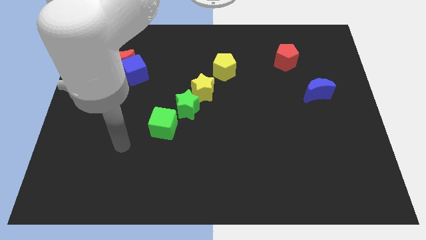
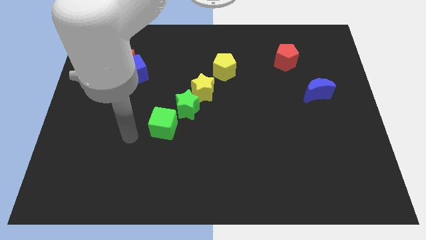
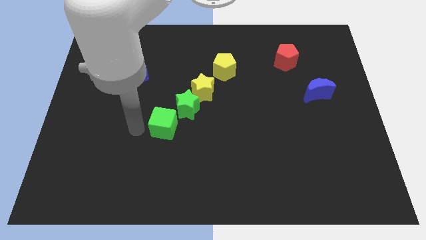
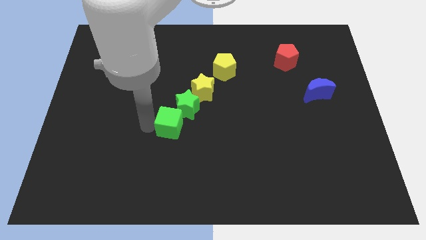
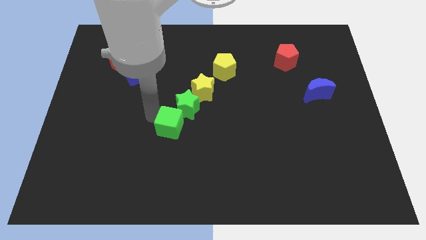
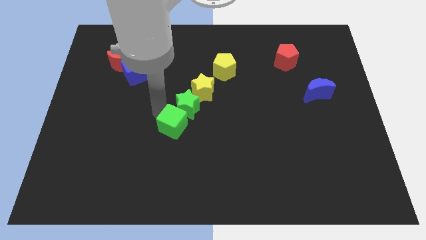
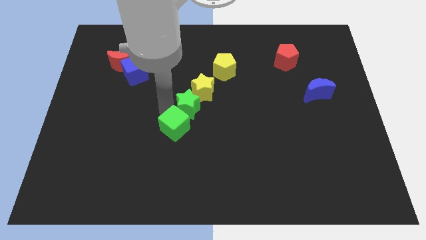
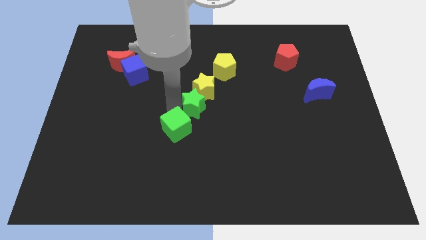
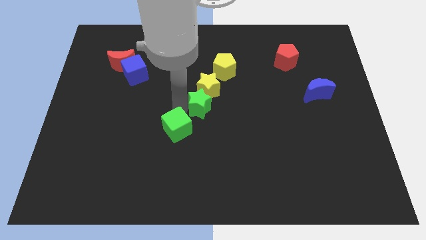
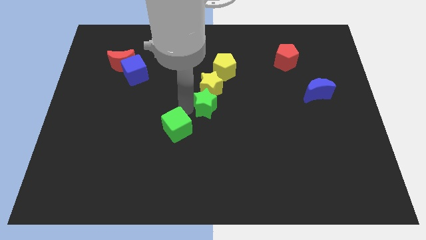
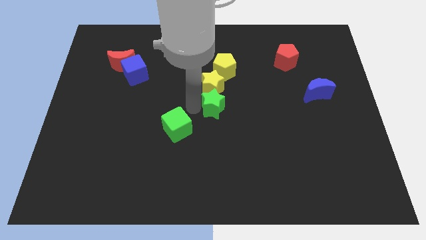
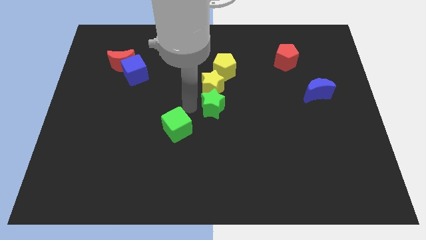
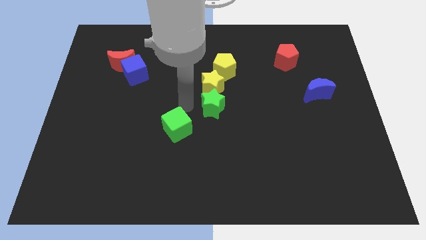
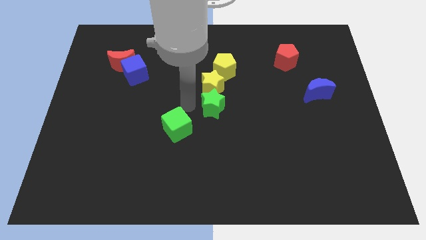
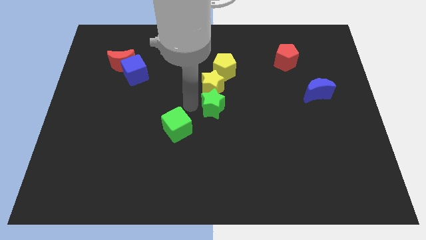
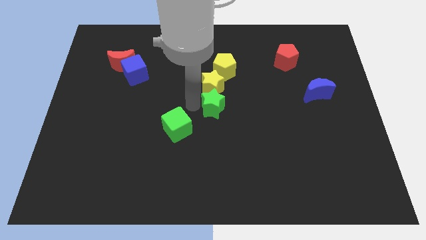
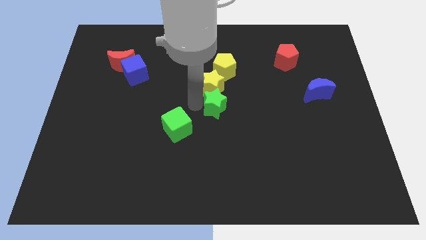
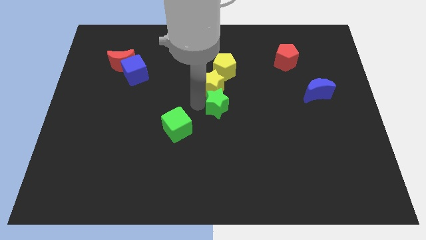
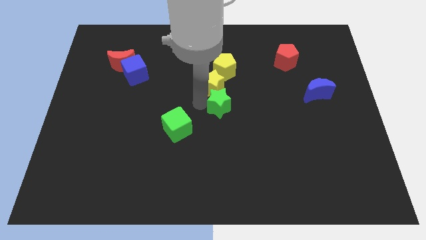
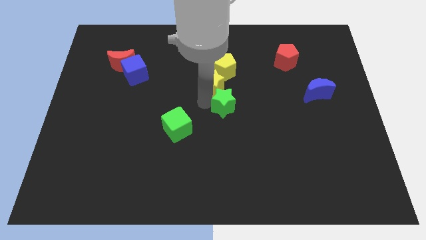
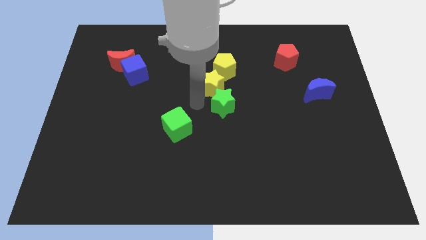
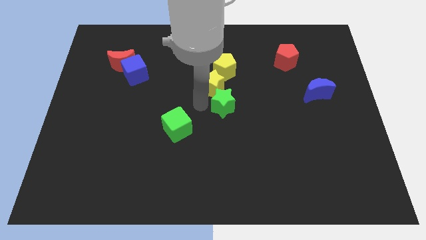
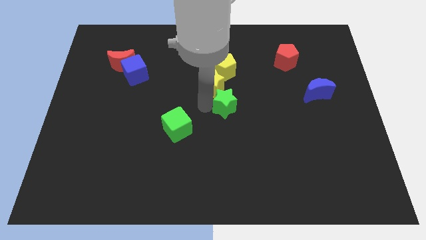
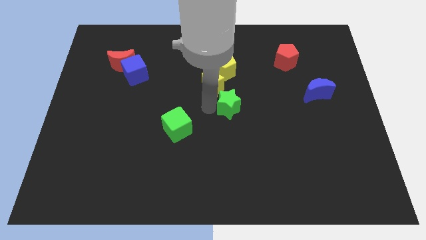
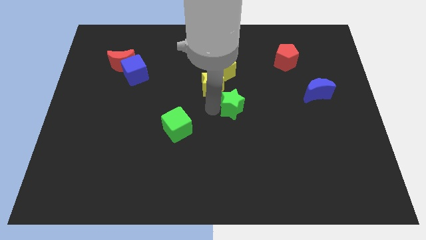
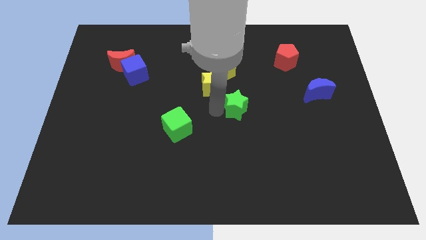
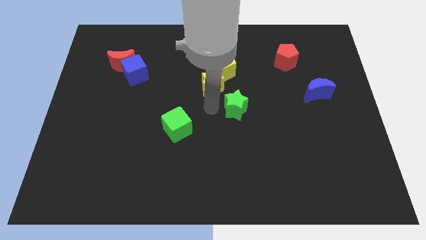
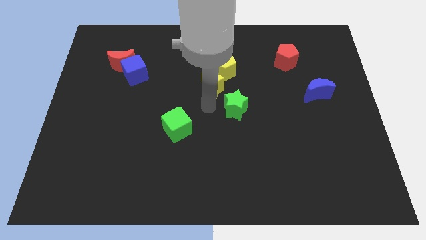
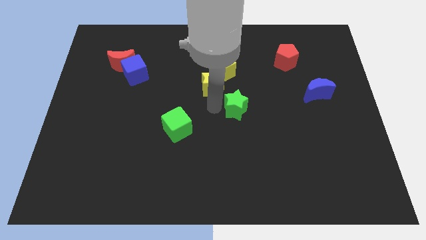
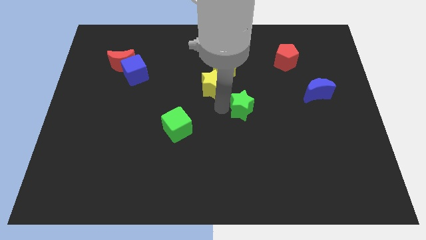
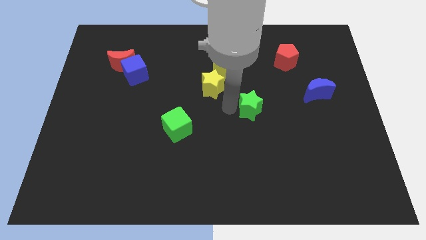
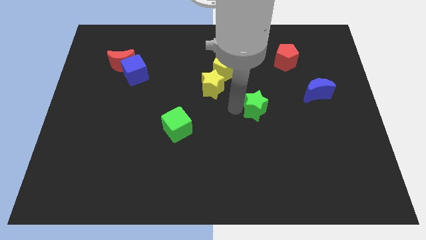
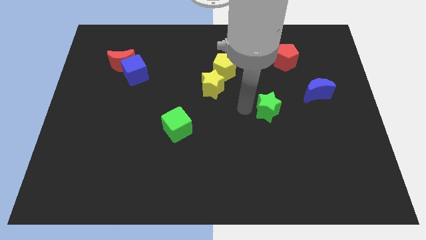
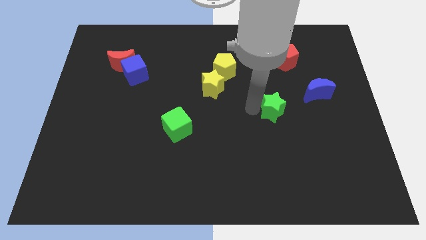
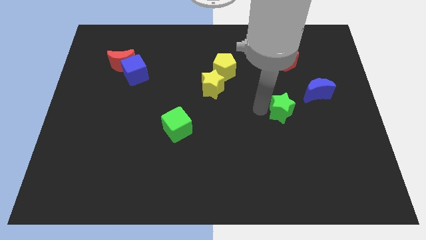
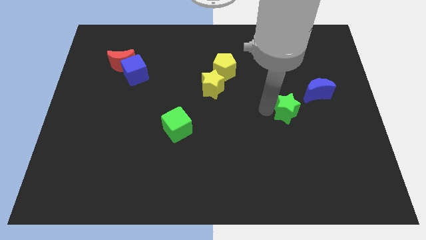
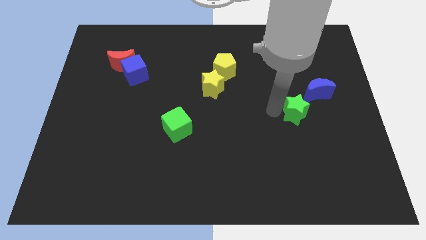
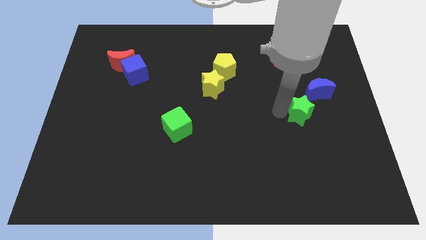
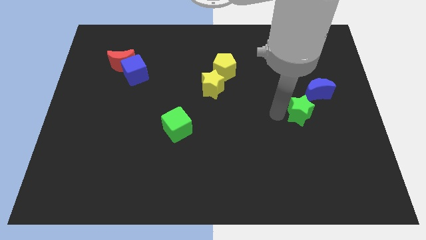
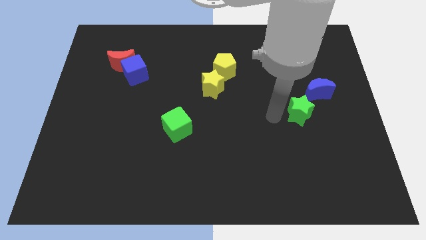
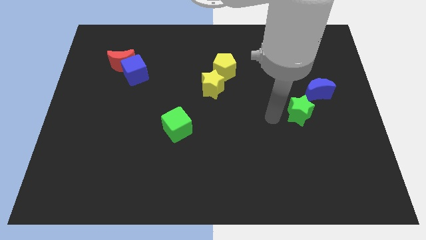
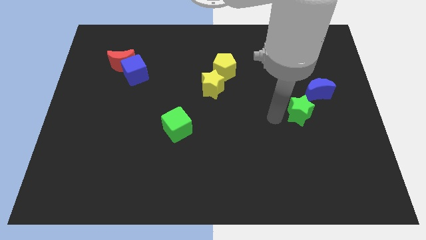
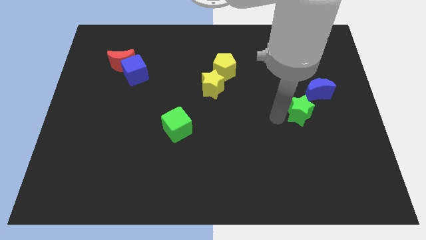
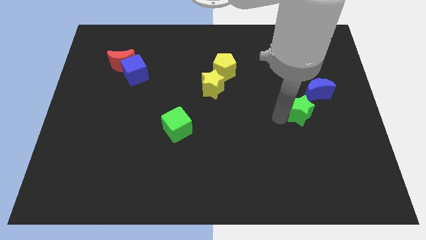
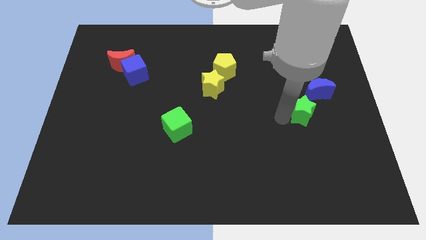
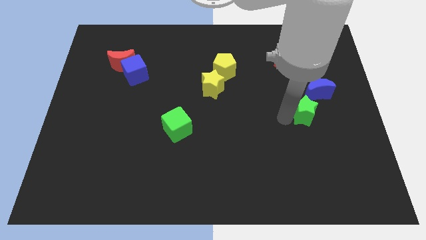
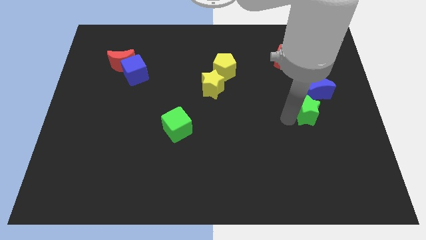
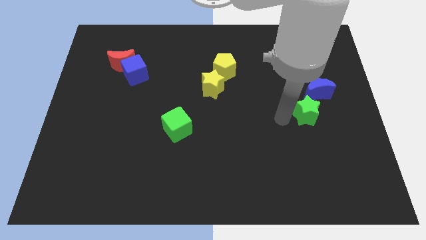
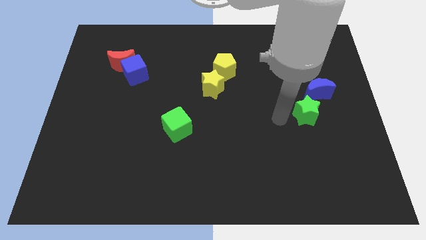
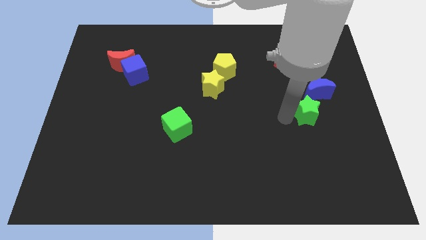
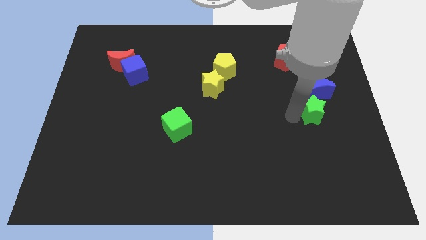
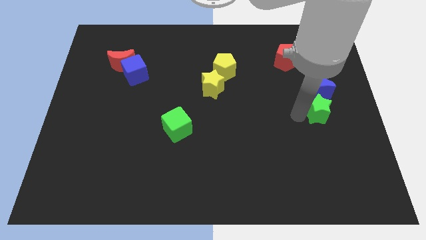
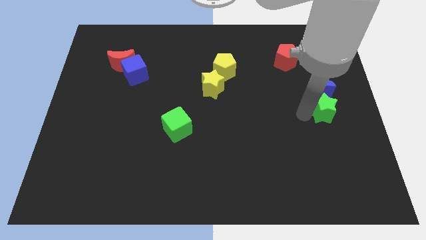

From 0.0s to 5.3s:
move the green star to the center right

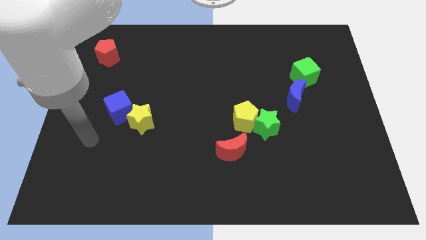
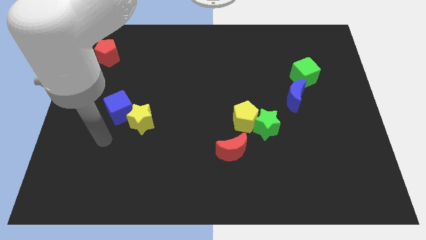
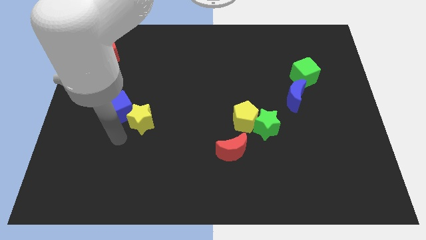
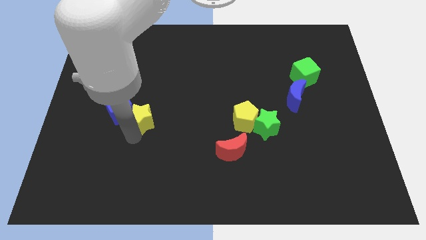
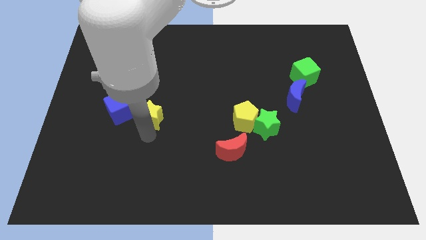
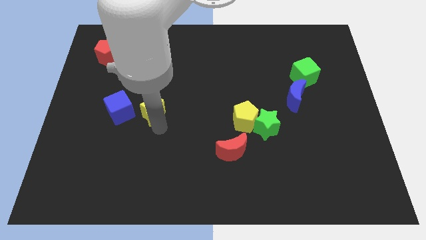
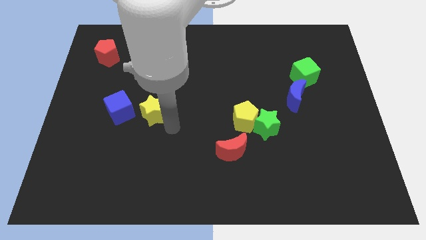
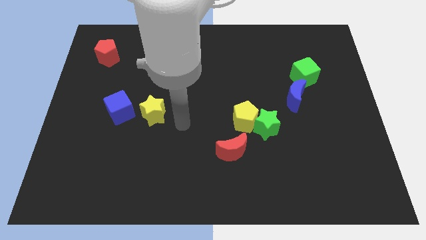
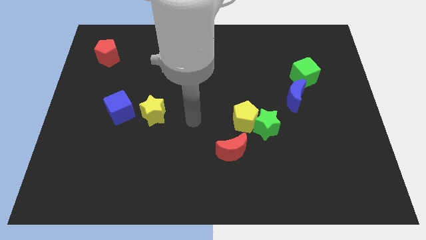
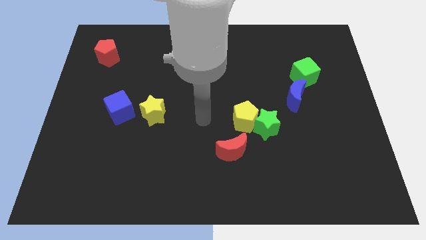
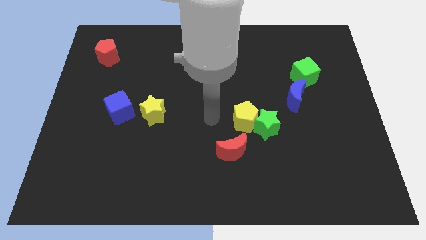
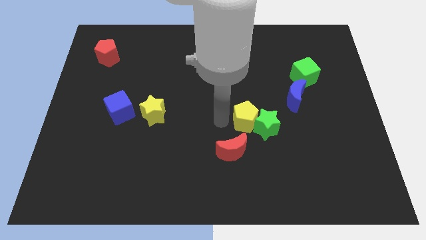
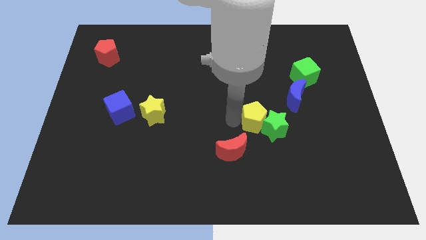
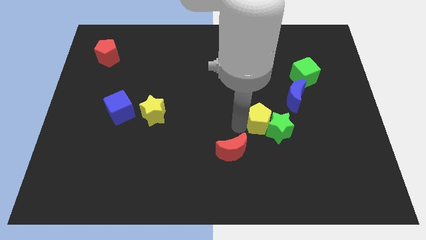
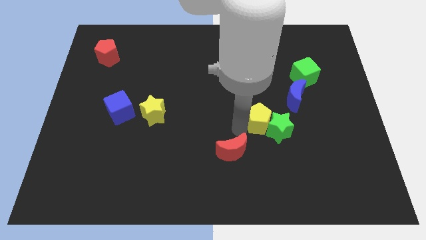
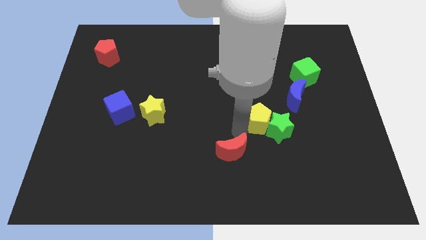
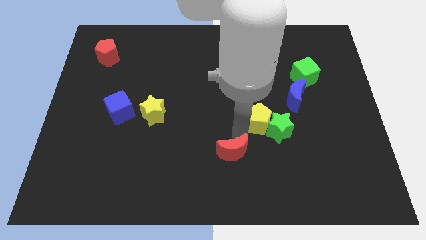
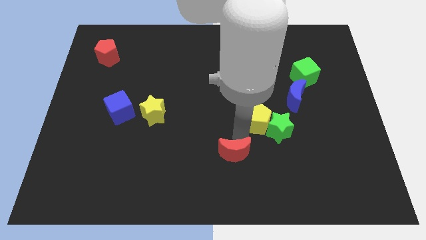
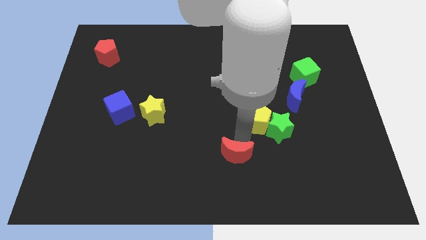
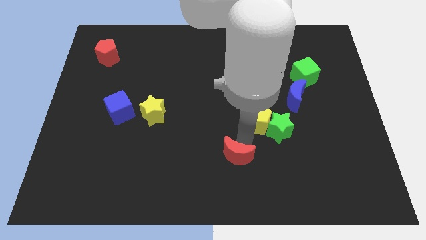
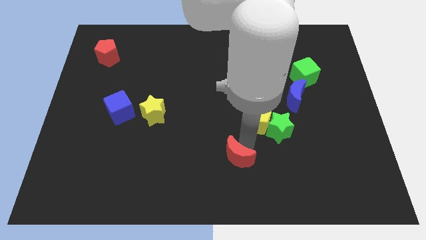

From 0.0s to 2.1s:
move the red moon to the bottom

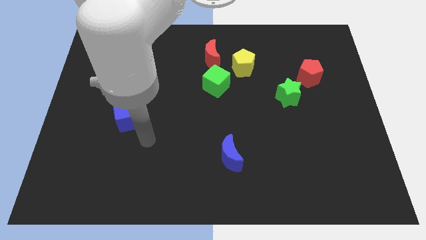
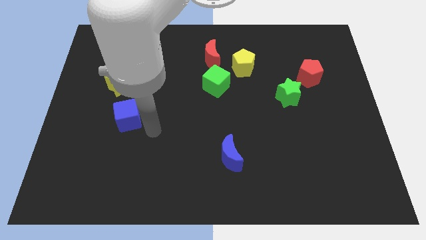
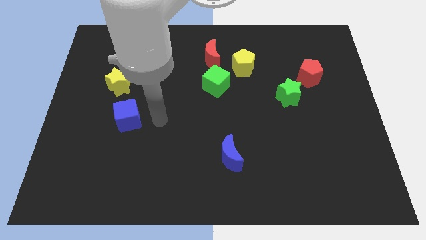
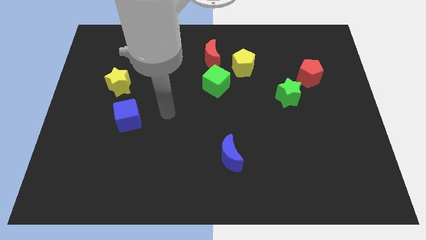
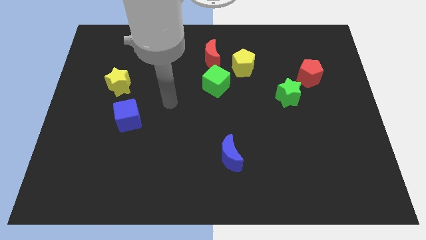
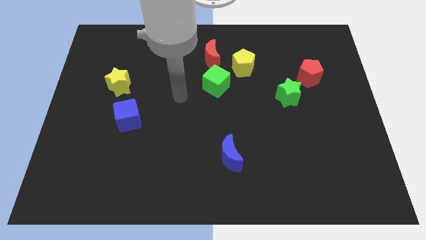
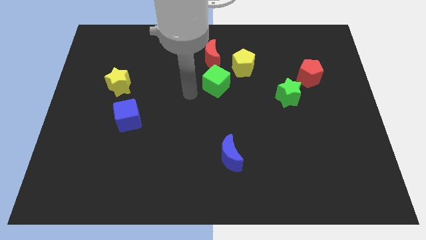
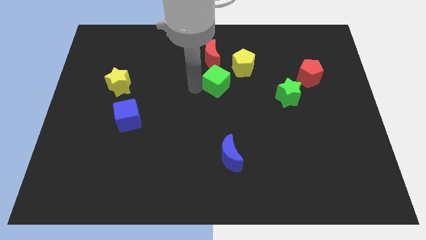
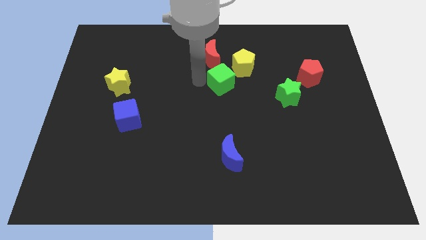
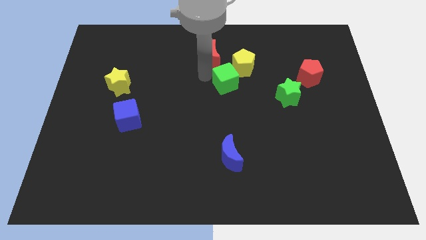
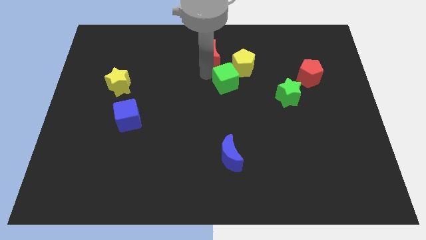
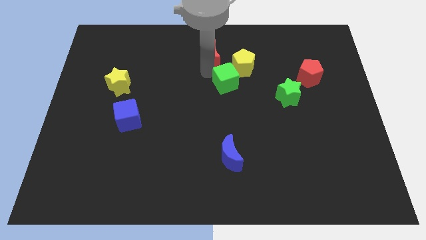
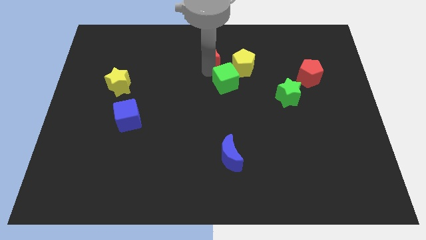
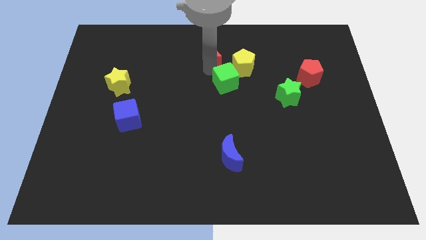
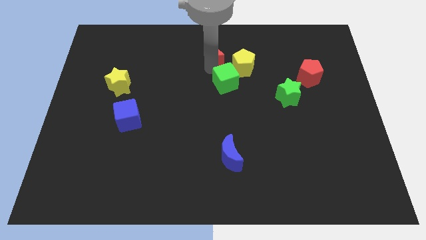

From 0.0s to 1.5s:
move the red moon to the top
